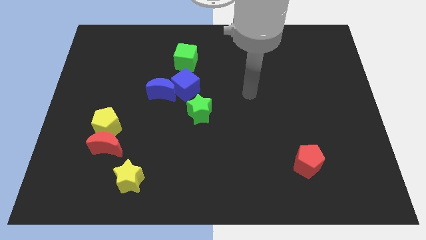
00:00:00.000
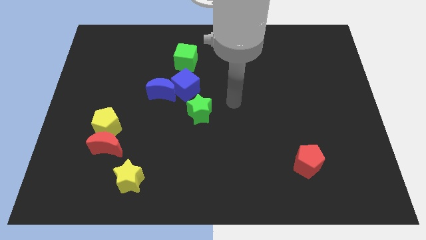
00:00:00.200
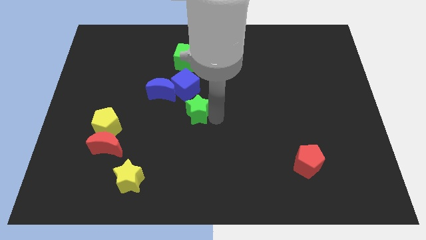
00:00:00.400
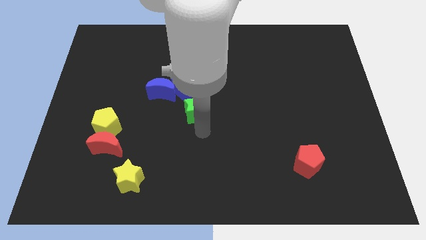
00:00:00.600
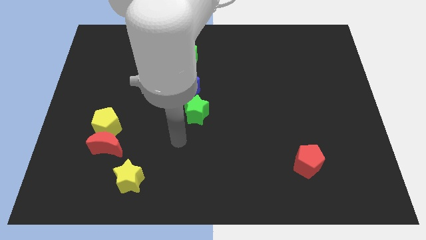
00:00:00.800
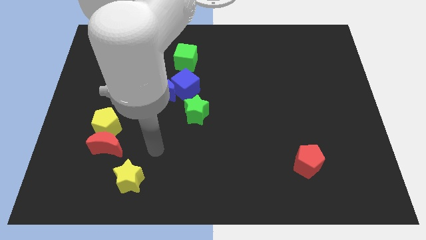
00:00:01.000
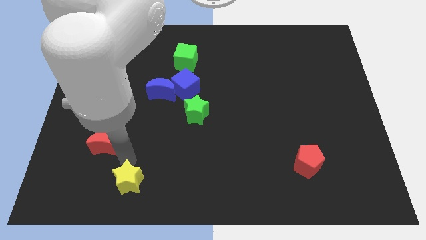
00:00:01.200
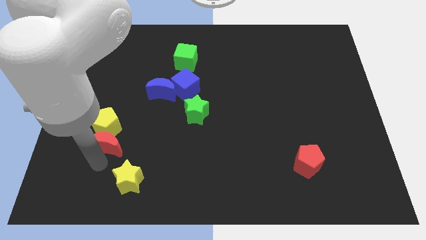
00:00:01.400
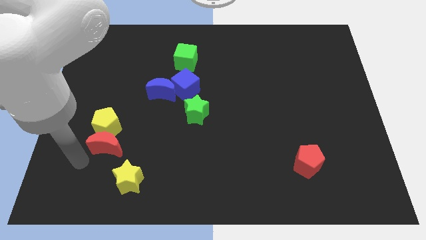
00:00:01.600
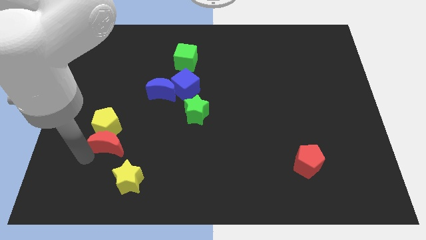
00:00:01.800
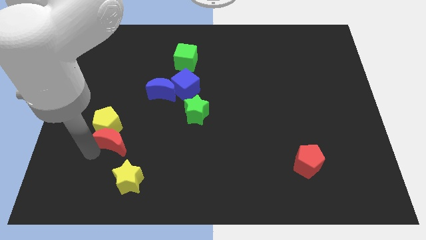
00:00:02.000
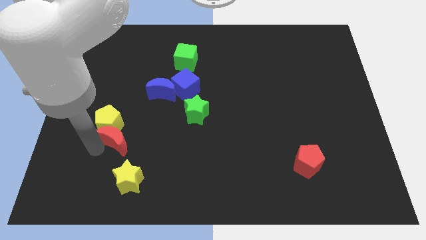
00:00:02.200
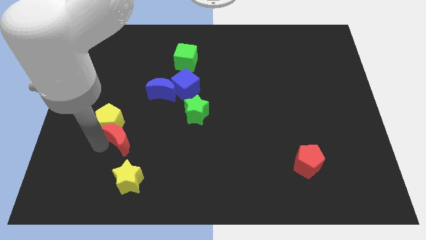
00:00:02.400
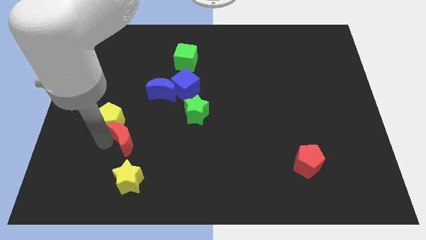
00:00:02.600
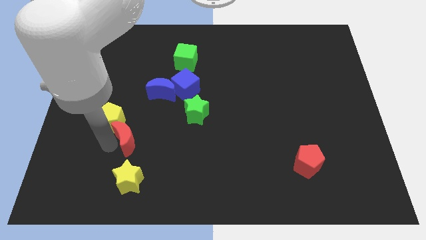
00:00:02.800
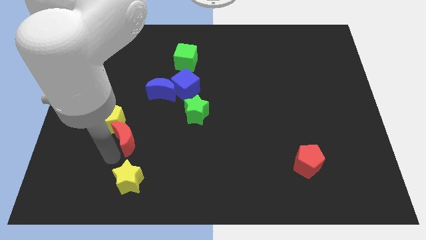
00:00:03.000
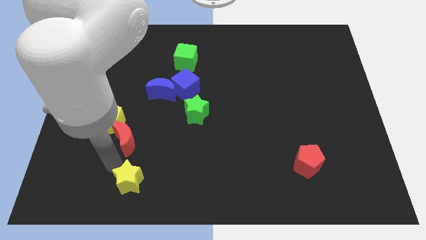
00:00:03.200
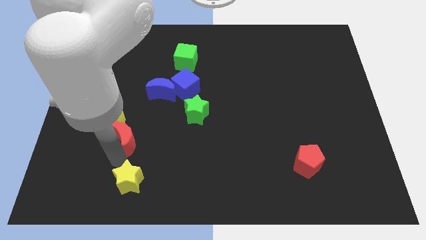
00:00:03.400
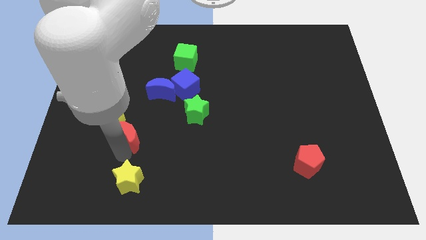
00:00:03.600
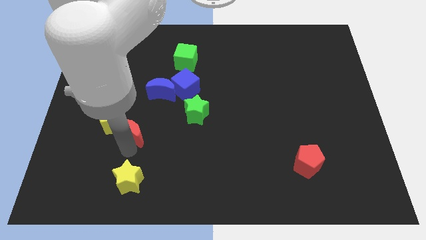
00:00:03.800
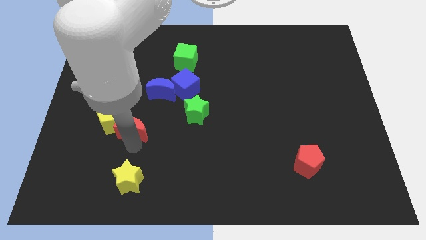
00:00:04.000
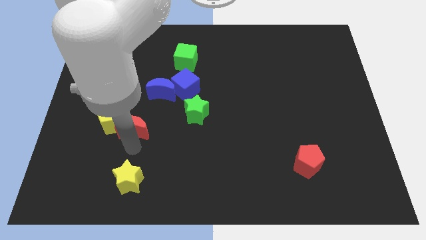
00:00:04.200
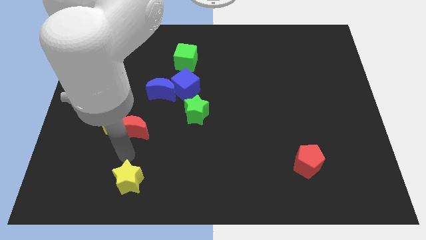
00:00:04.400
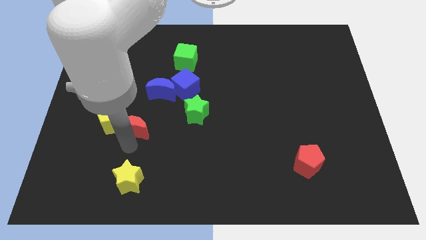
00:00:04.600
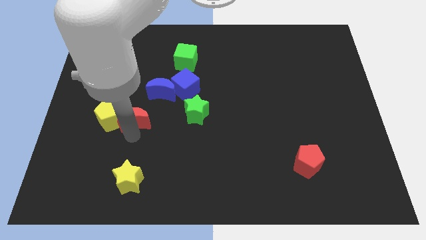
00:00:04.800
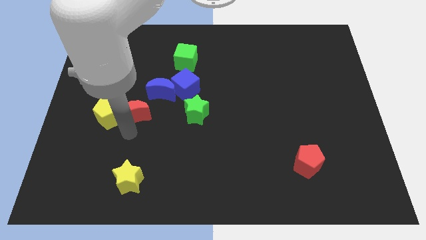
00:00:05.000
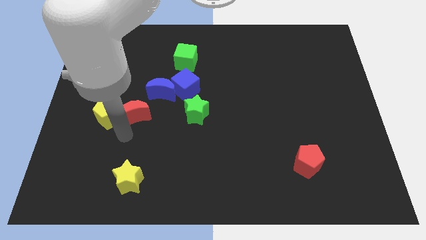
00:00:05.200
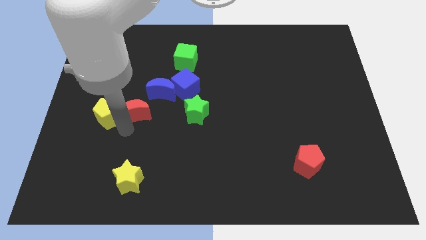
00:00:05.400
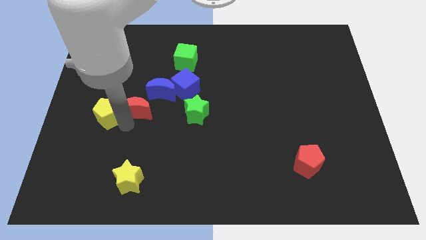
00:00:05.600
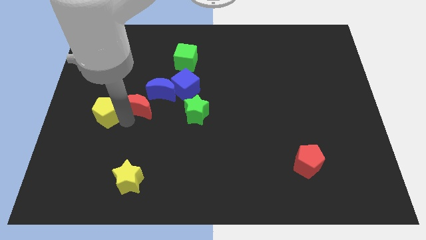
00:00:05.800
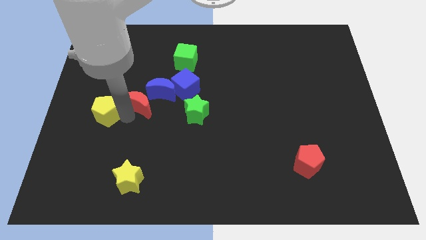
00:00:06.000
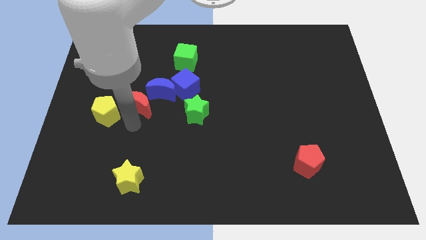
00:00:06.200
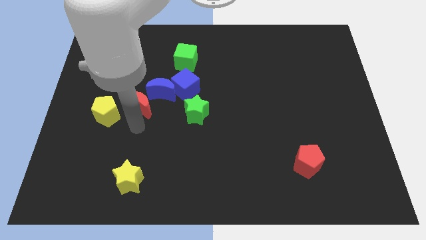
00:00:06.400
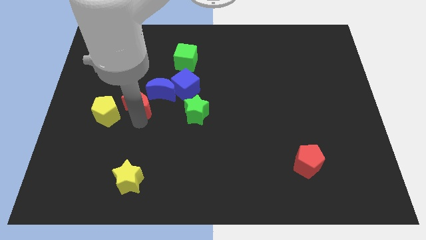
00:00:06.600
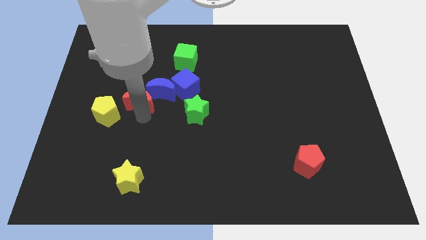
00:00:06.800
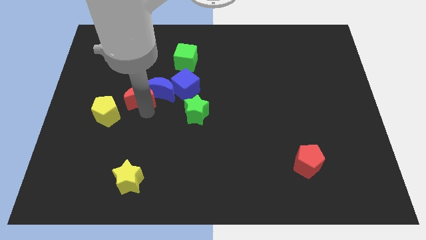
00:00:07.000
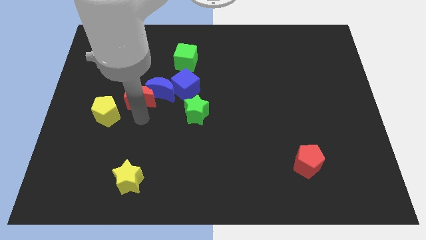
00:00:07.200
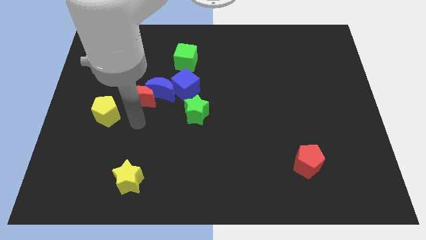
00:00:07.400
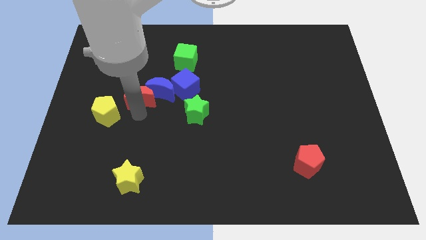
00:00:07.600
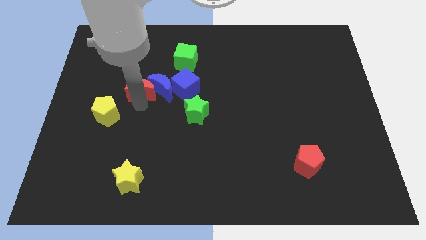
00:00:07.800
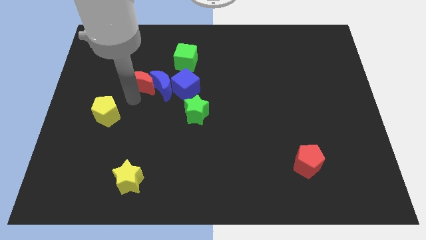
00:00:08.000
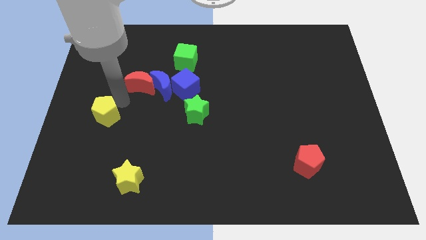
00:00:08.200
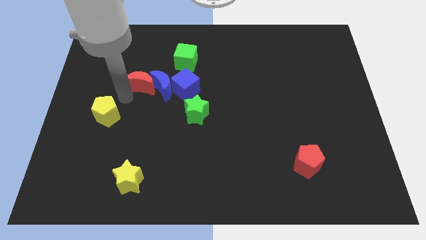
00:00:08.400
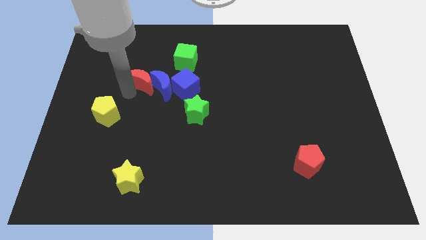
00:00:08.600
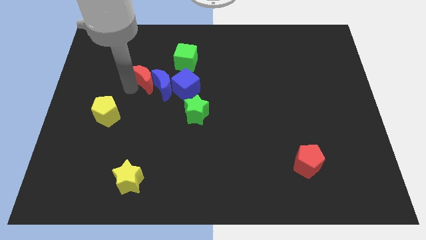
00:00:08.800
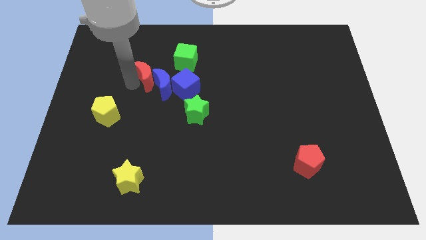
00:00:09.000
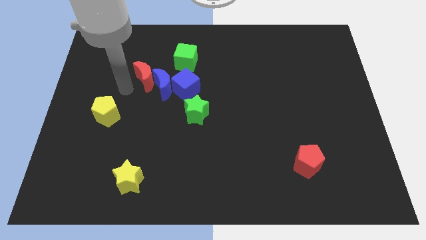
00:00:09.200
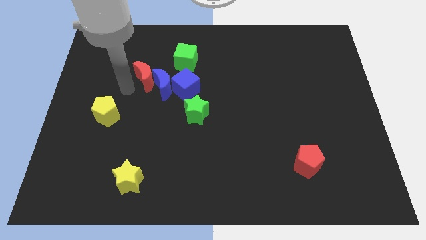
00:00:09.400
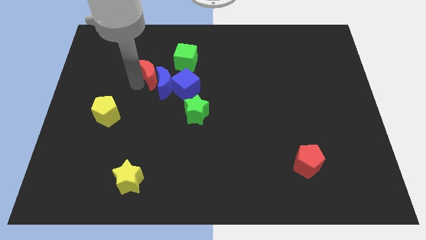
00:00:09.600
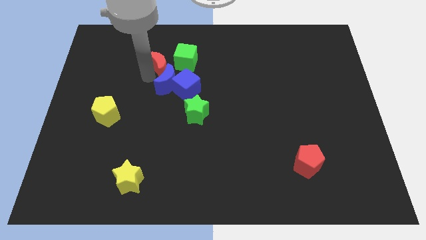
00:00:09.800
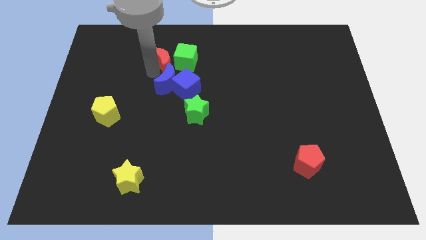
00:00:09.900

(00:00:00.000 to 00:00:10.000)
slide the red moon close to the green cube

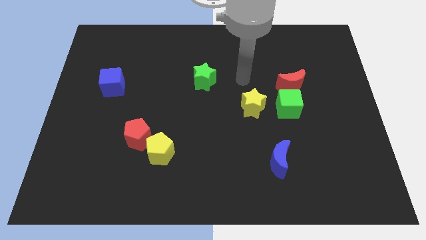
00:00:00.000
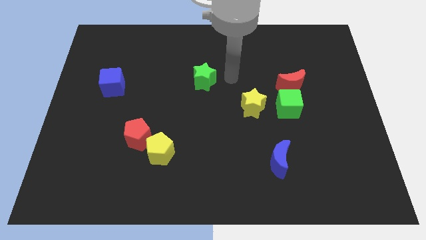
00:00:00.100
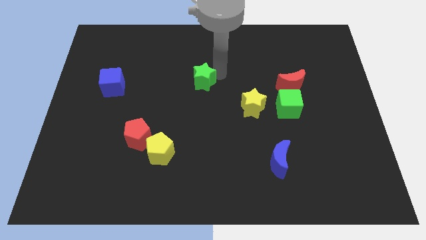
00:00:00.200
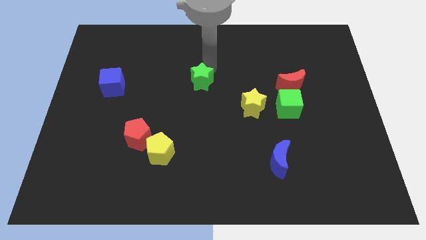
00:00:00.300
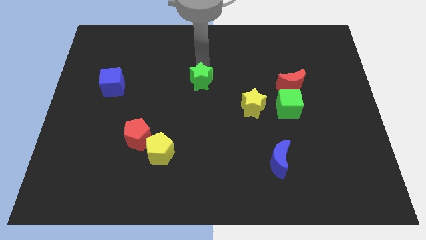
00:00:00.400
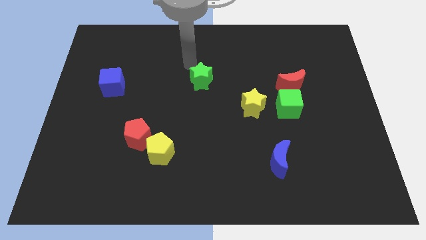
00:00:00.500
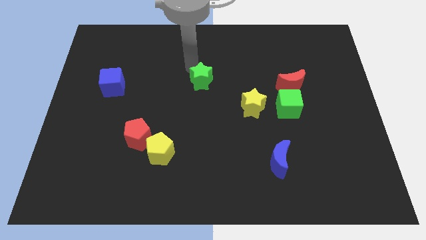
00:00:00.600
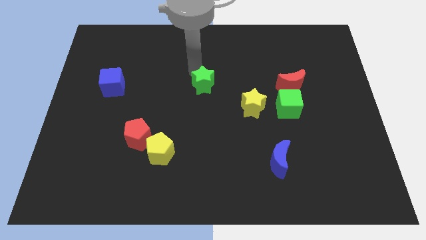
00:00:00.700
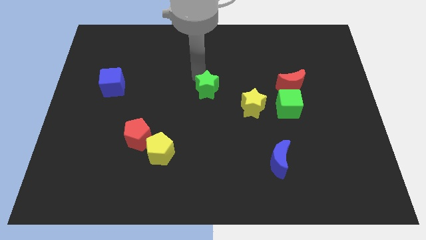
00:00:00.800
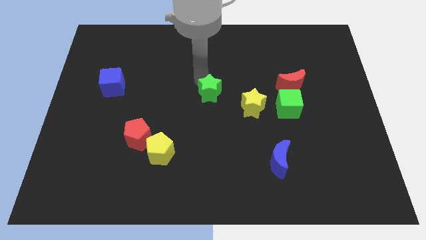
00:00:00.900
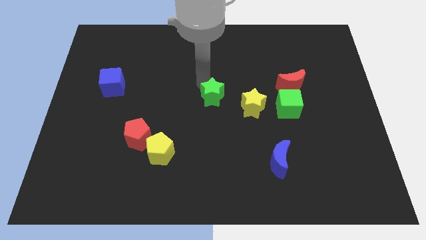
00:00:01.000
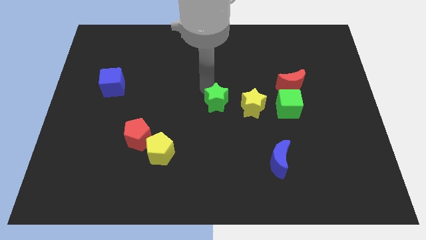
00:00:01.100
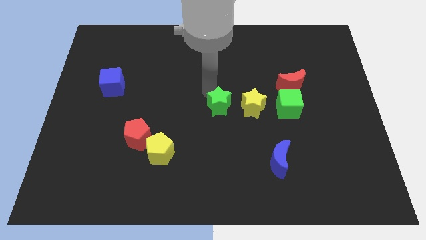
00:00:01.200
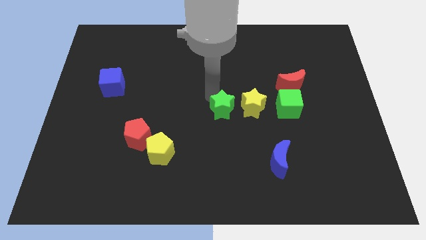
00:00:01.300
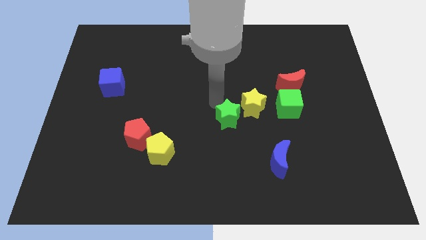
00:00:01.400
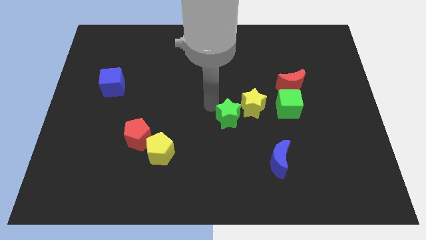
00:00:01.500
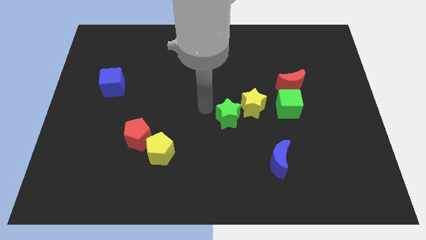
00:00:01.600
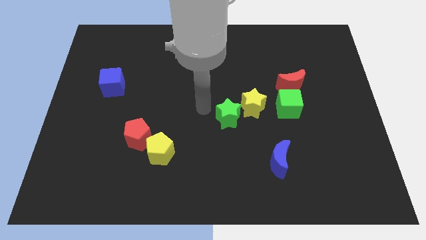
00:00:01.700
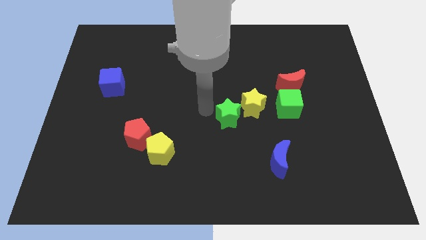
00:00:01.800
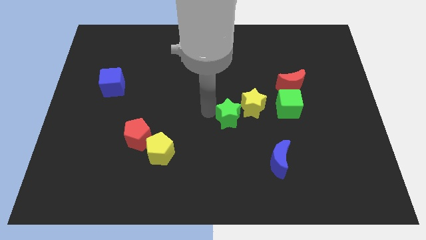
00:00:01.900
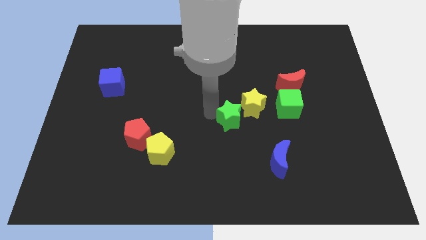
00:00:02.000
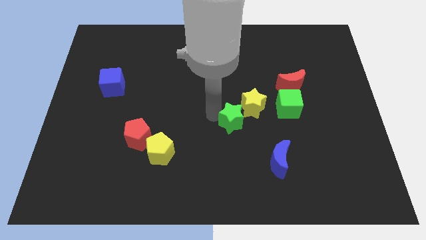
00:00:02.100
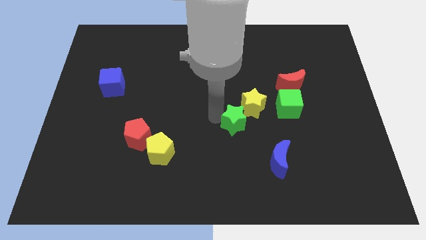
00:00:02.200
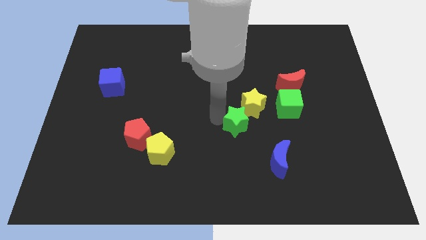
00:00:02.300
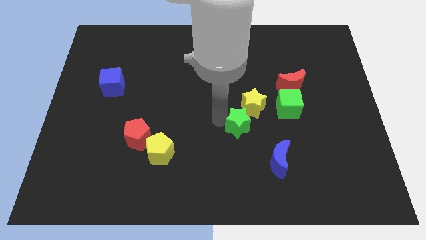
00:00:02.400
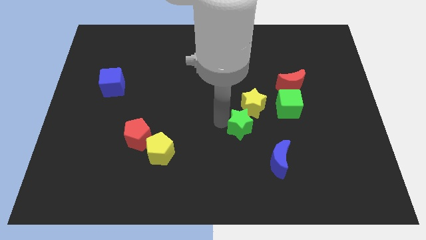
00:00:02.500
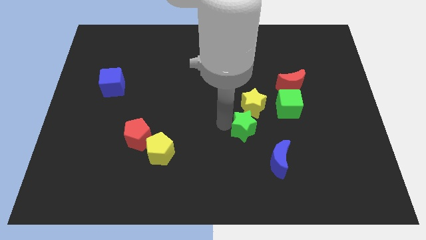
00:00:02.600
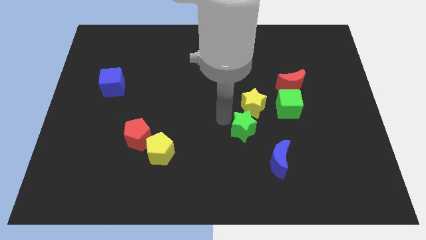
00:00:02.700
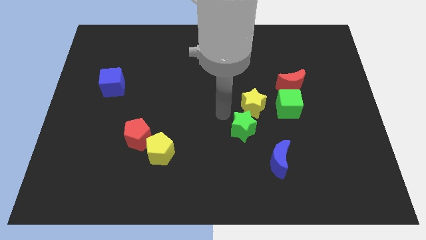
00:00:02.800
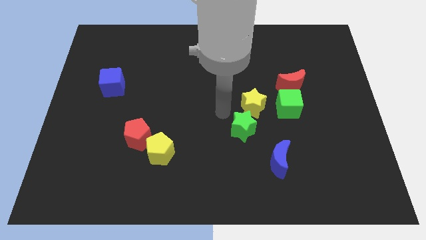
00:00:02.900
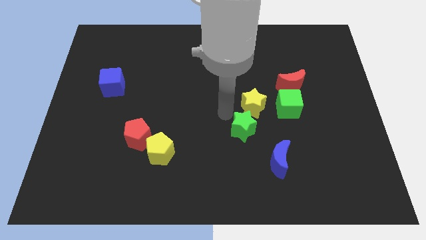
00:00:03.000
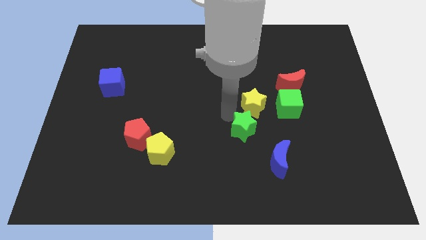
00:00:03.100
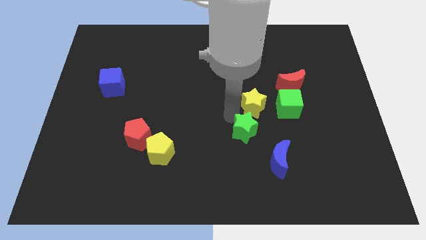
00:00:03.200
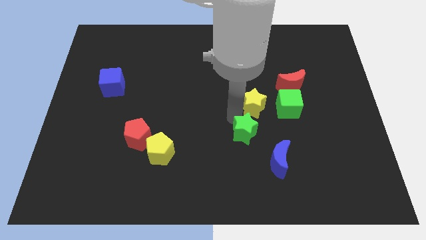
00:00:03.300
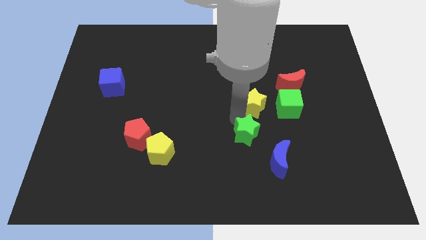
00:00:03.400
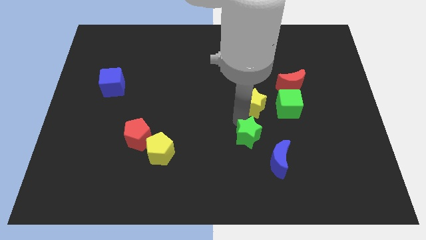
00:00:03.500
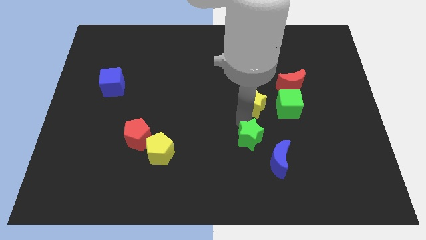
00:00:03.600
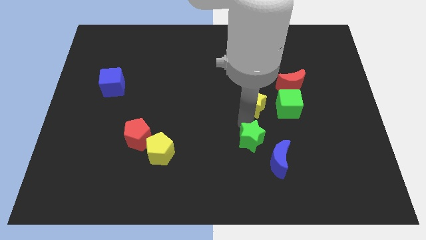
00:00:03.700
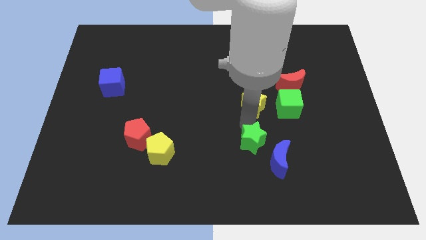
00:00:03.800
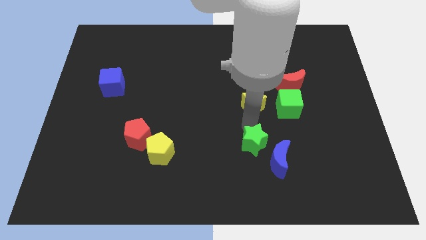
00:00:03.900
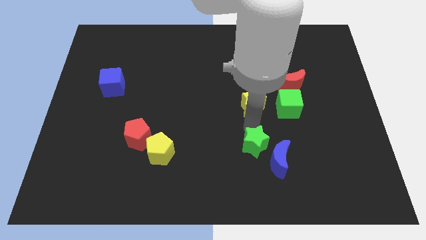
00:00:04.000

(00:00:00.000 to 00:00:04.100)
put the green star towards the blue moon
